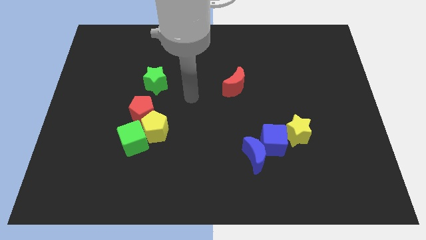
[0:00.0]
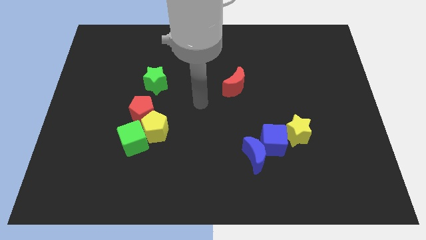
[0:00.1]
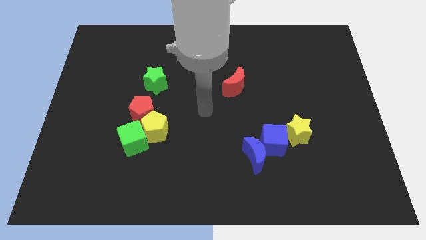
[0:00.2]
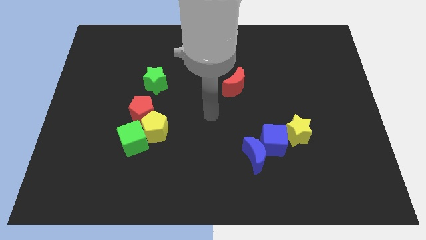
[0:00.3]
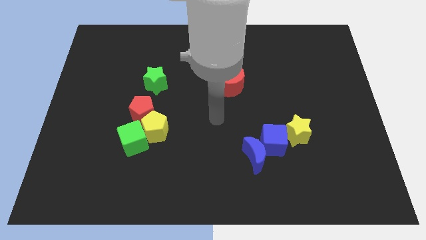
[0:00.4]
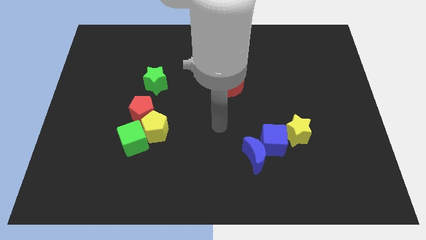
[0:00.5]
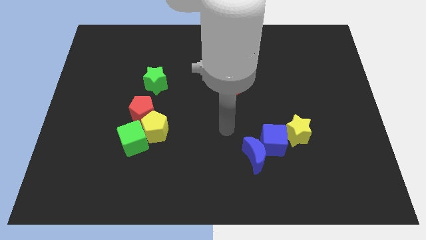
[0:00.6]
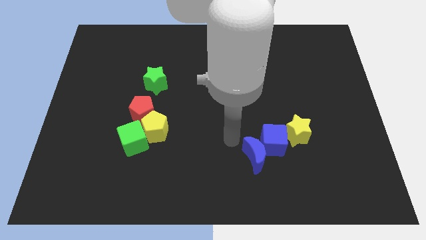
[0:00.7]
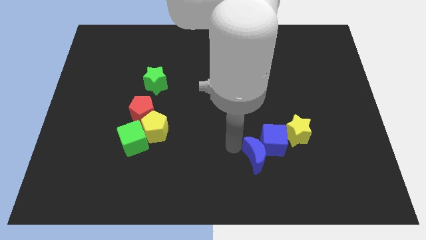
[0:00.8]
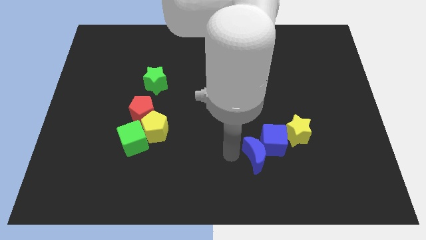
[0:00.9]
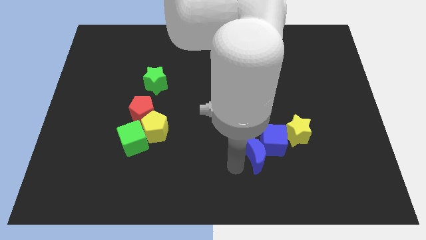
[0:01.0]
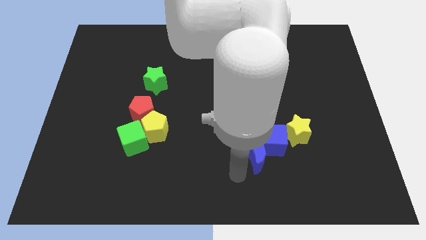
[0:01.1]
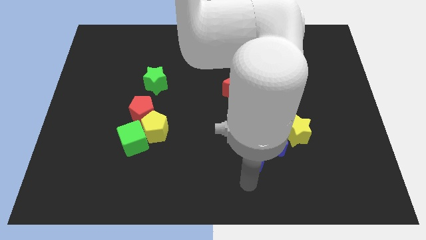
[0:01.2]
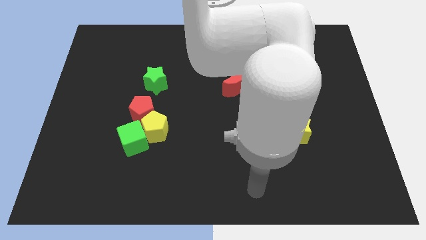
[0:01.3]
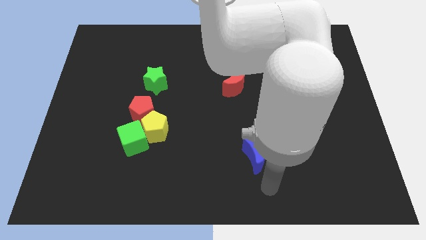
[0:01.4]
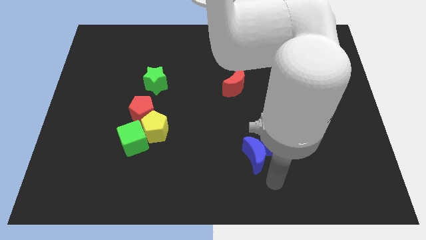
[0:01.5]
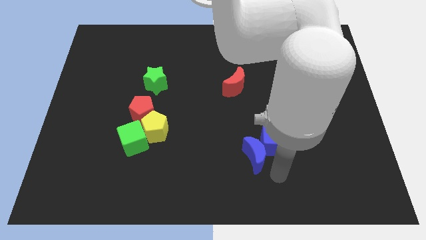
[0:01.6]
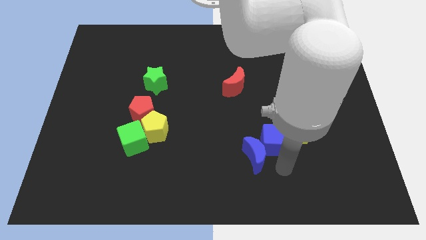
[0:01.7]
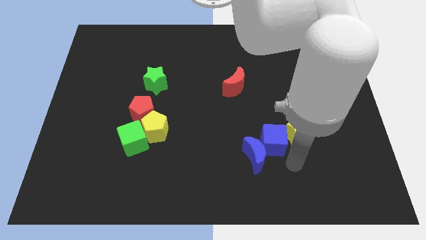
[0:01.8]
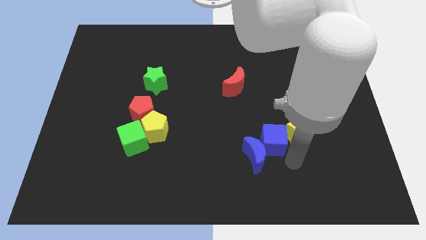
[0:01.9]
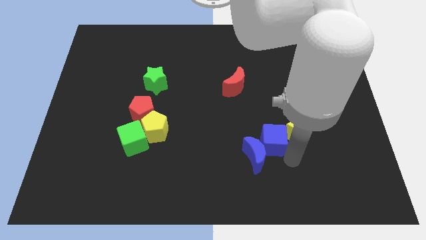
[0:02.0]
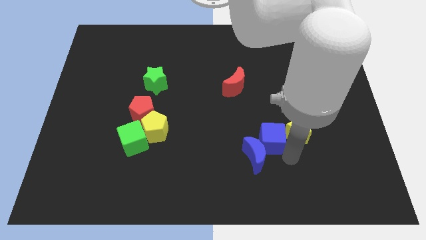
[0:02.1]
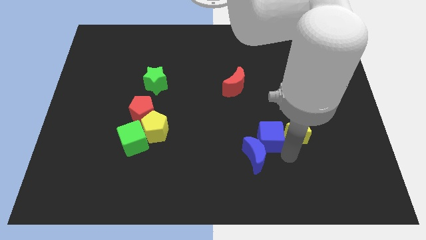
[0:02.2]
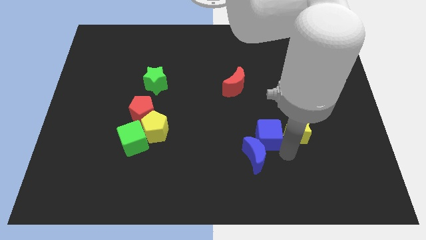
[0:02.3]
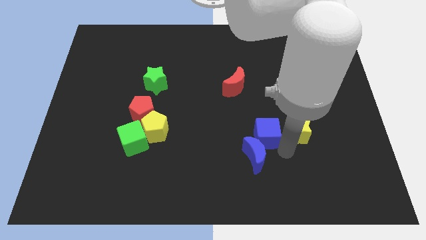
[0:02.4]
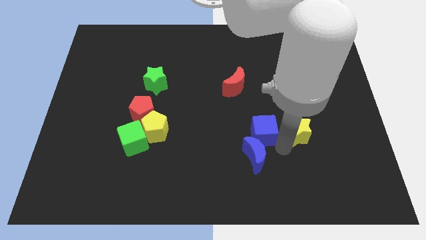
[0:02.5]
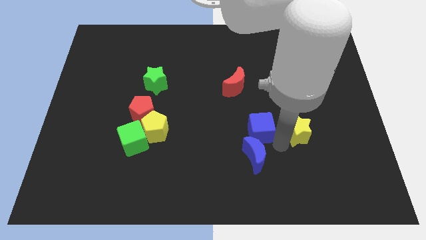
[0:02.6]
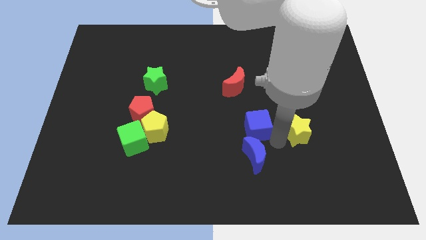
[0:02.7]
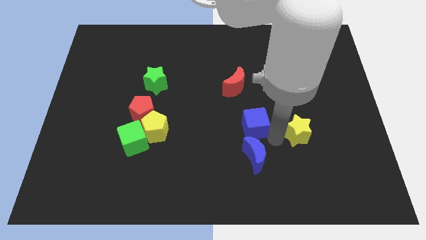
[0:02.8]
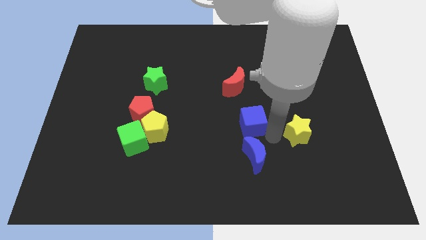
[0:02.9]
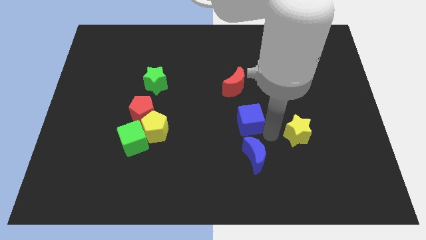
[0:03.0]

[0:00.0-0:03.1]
move the blue cube slightly up and then to the left

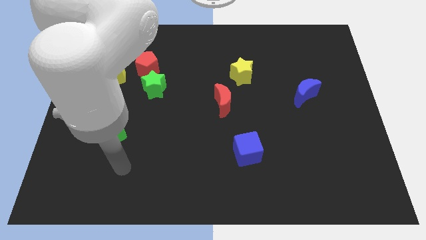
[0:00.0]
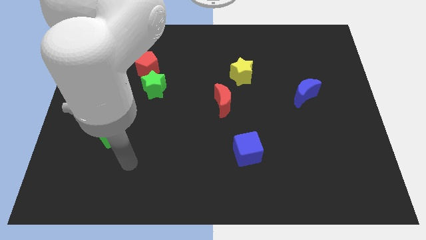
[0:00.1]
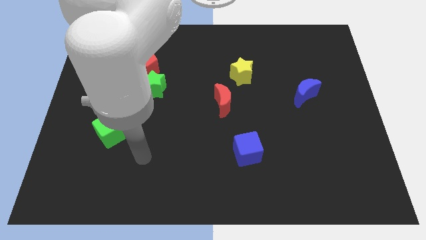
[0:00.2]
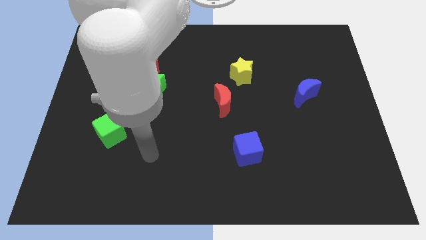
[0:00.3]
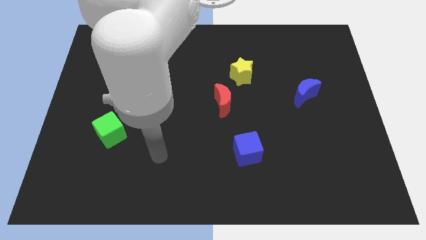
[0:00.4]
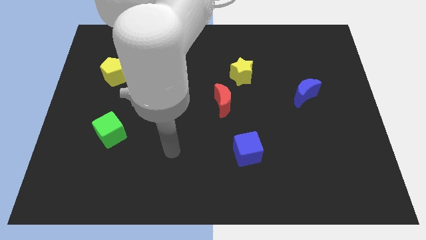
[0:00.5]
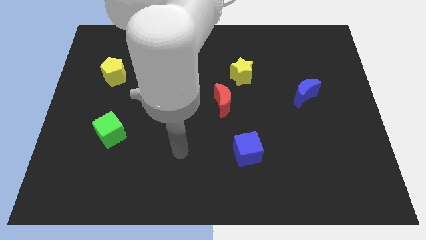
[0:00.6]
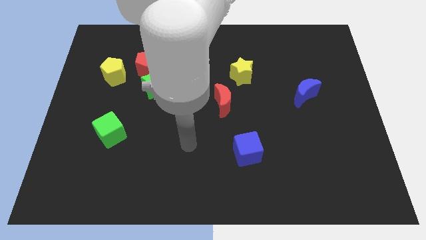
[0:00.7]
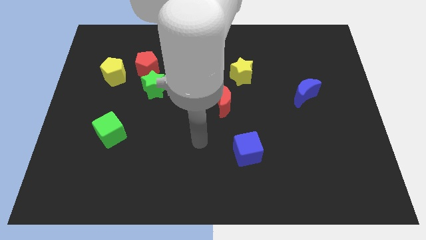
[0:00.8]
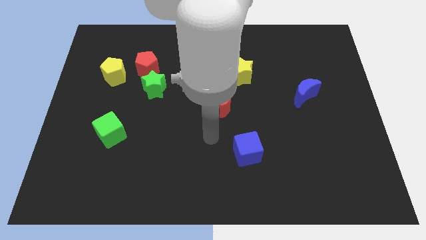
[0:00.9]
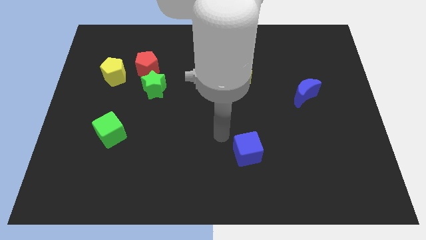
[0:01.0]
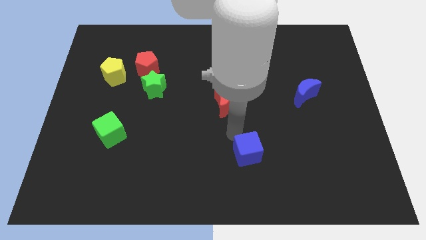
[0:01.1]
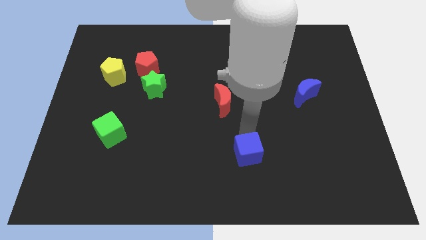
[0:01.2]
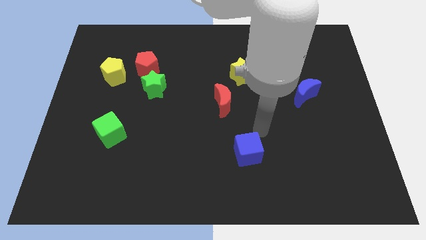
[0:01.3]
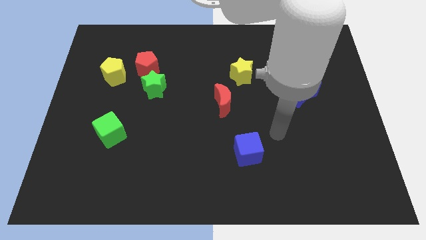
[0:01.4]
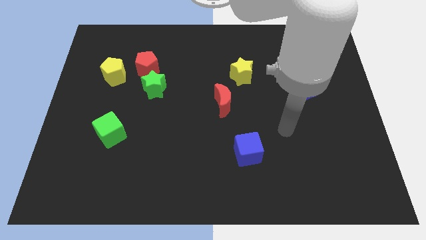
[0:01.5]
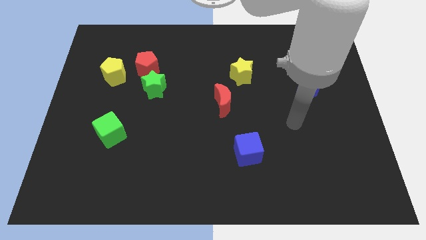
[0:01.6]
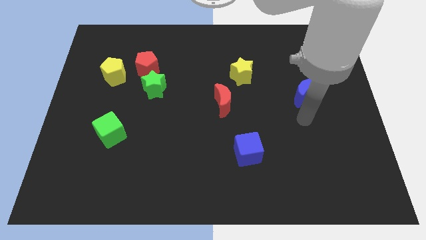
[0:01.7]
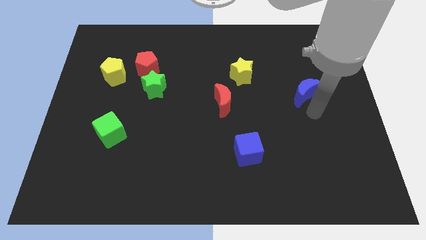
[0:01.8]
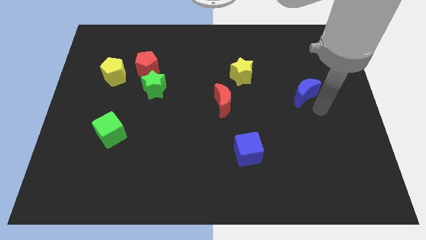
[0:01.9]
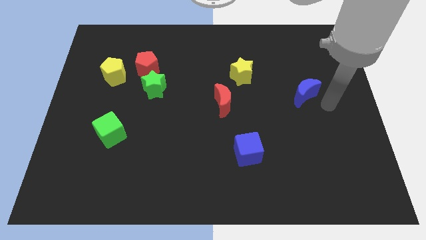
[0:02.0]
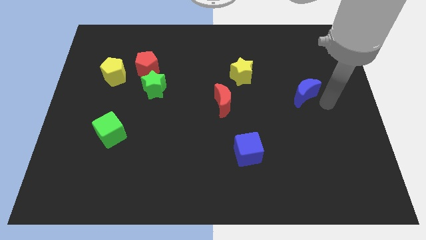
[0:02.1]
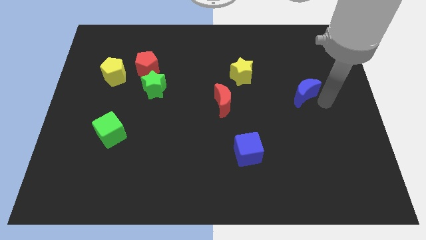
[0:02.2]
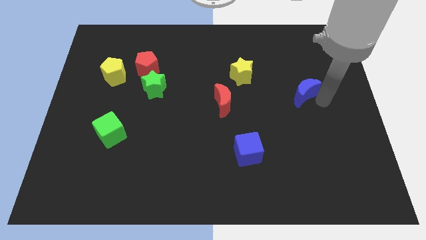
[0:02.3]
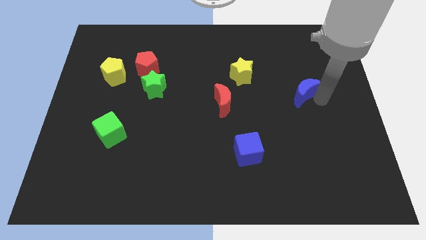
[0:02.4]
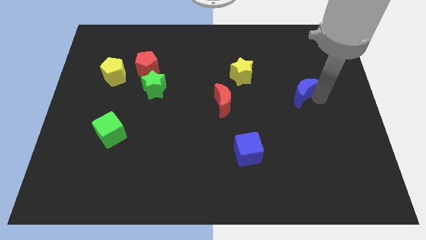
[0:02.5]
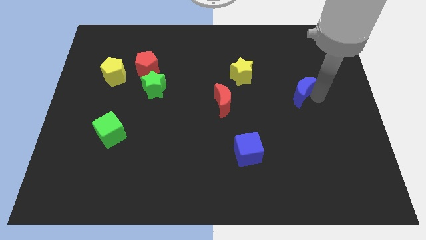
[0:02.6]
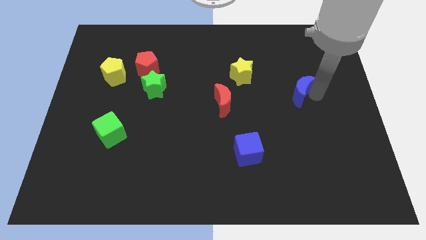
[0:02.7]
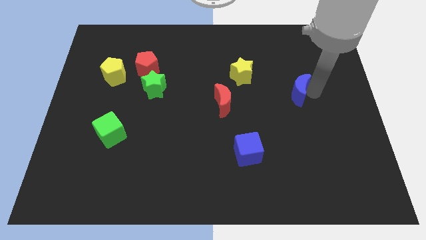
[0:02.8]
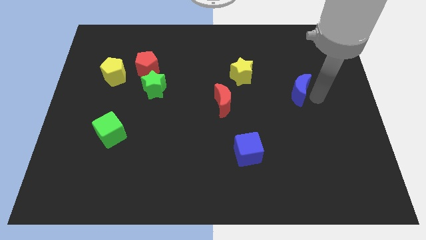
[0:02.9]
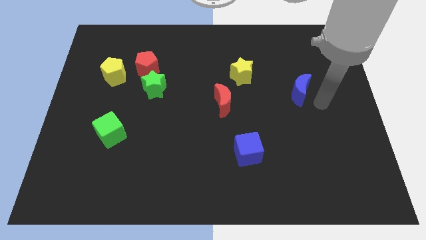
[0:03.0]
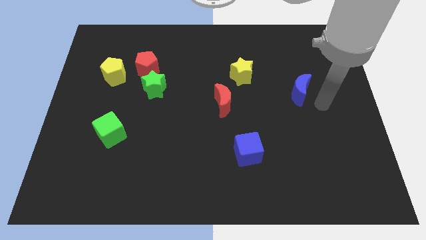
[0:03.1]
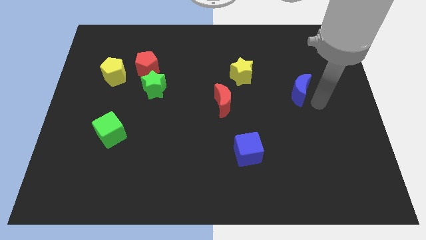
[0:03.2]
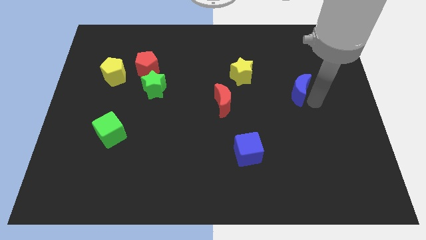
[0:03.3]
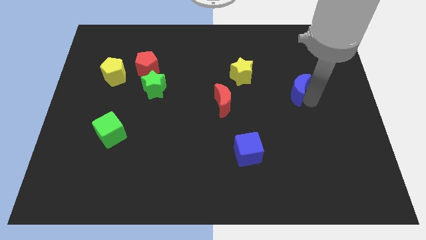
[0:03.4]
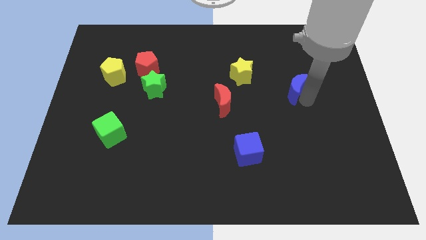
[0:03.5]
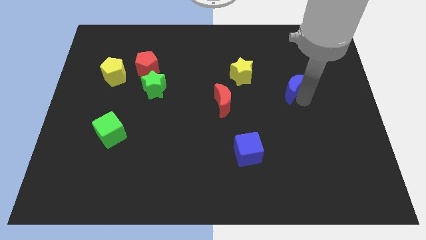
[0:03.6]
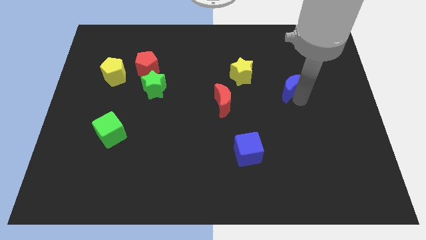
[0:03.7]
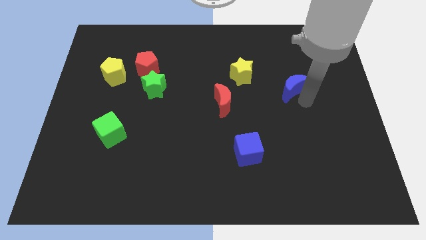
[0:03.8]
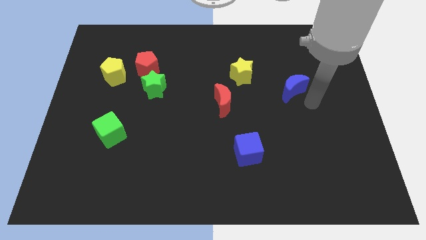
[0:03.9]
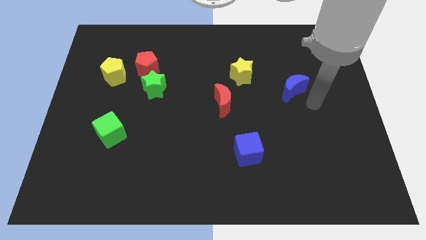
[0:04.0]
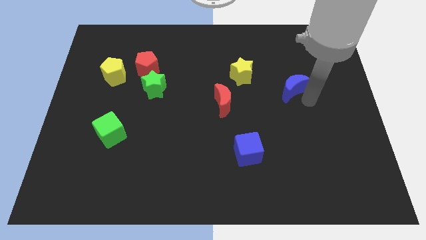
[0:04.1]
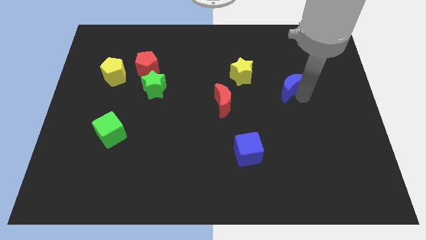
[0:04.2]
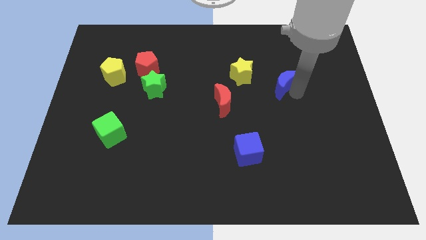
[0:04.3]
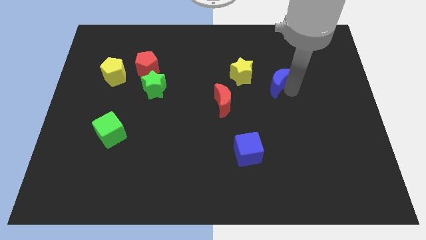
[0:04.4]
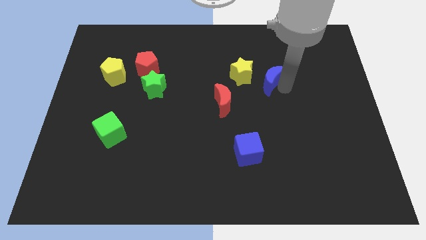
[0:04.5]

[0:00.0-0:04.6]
slide the blue moon up and left slightly
